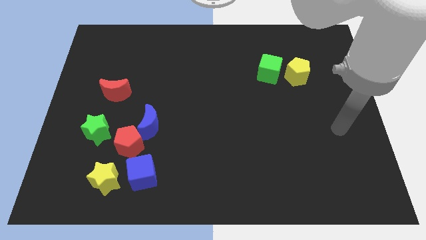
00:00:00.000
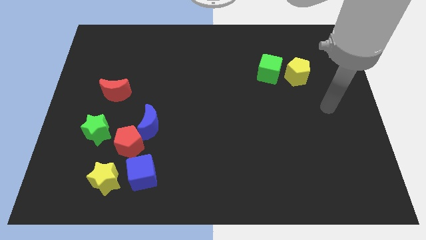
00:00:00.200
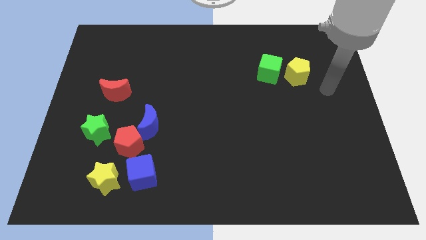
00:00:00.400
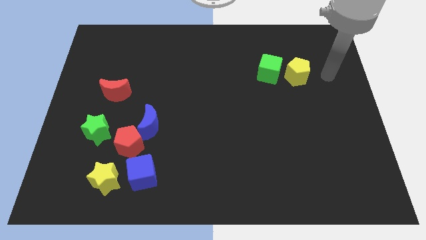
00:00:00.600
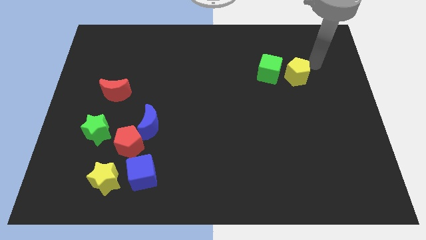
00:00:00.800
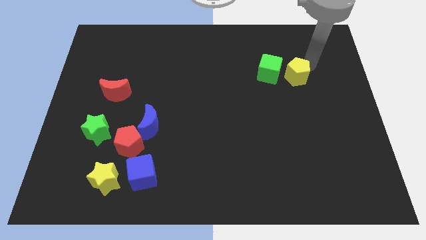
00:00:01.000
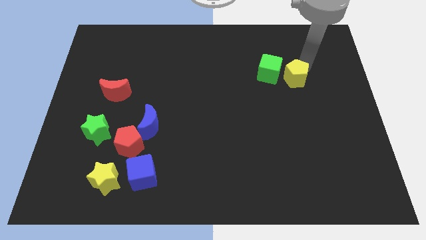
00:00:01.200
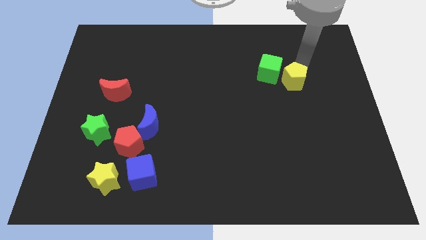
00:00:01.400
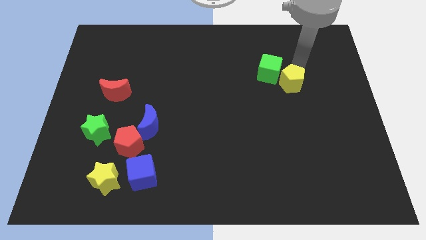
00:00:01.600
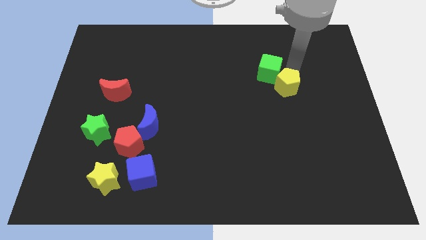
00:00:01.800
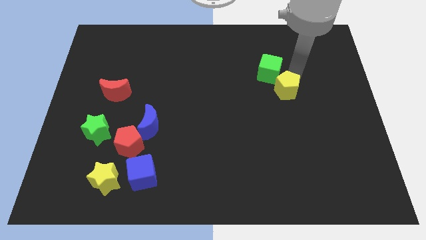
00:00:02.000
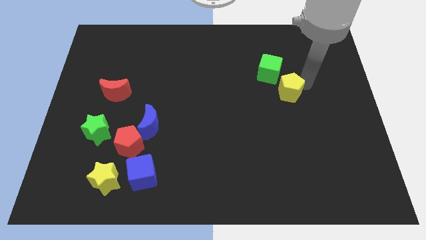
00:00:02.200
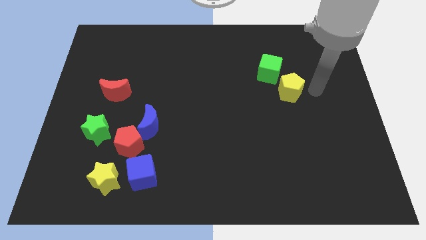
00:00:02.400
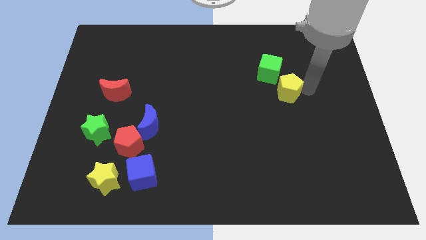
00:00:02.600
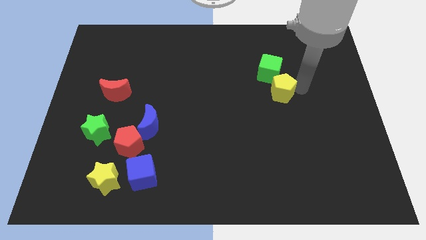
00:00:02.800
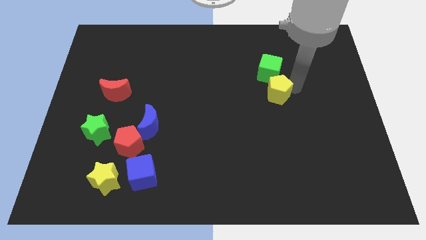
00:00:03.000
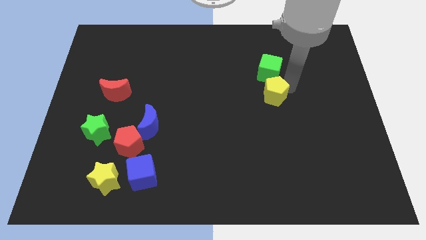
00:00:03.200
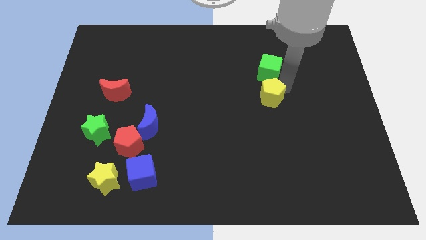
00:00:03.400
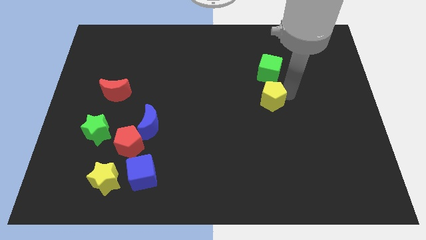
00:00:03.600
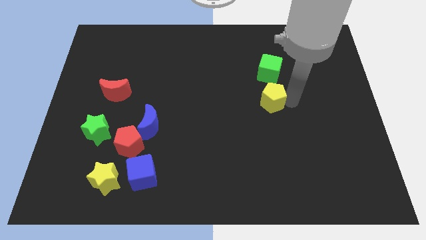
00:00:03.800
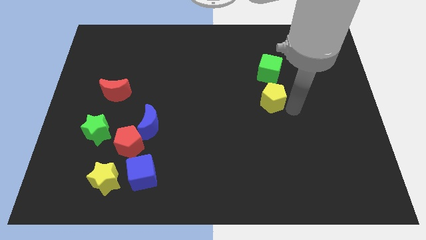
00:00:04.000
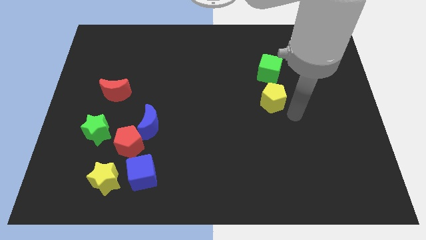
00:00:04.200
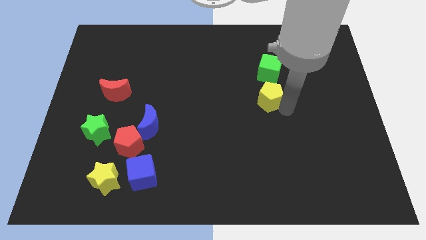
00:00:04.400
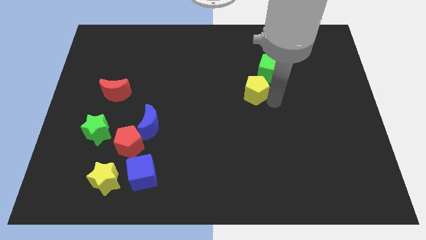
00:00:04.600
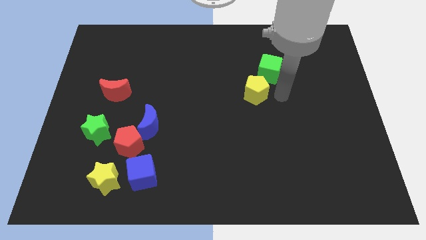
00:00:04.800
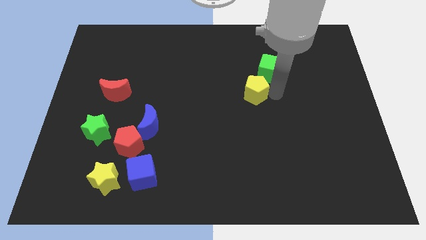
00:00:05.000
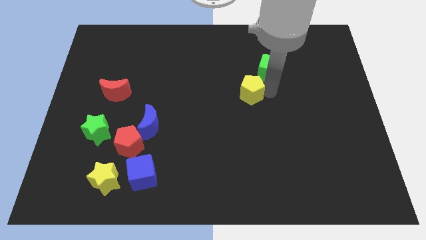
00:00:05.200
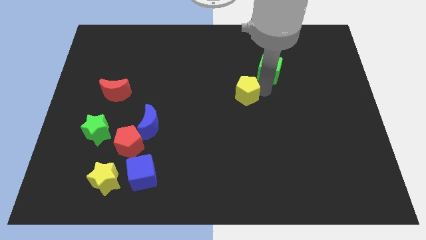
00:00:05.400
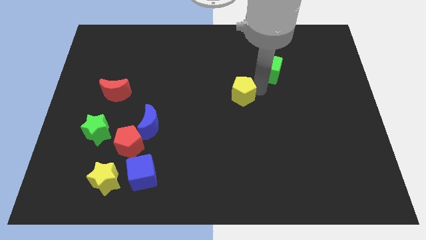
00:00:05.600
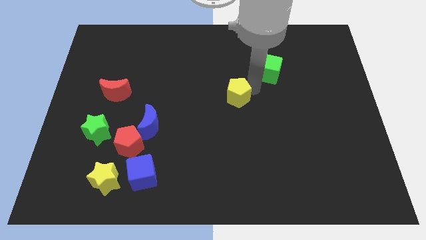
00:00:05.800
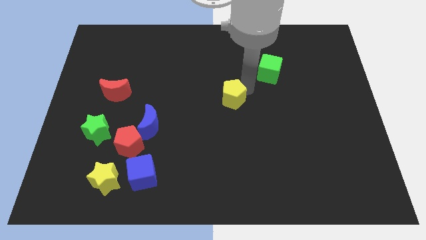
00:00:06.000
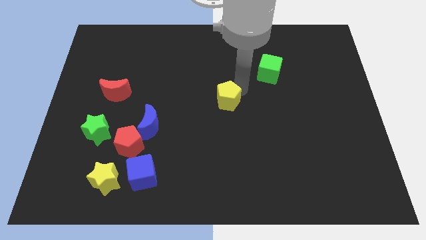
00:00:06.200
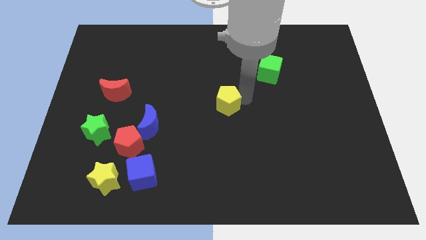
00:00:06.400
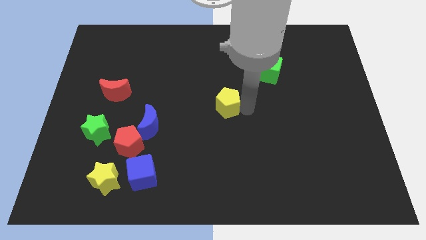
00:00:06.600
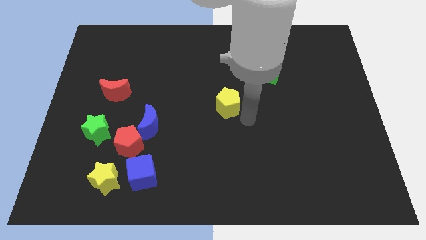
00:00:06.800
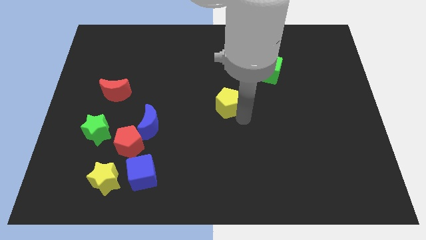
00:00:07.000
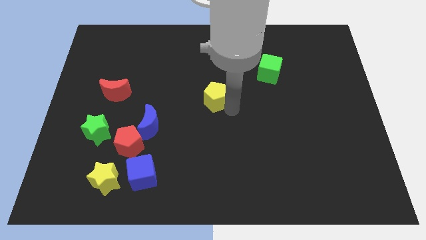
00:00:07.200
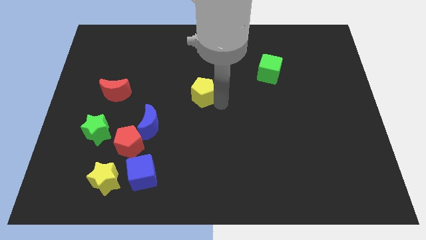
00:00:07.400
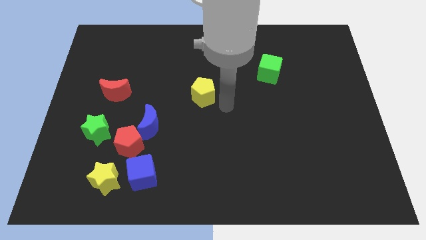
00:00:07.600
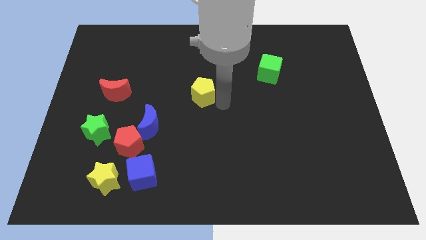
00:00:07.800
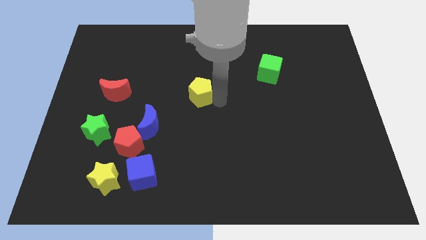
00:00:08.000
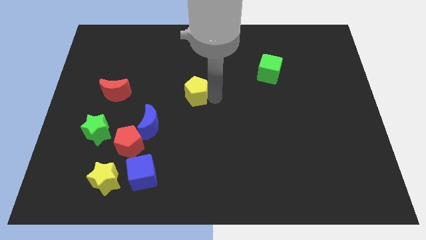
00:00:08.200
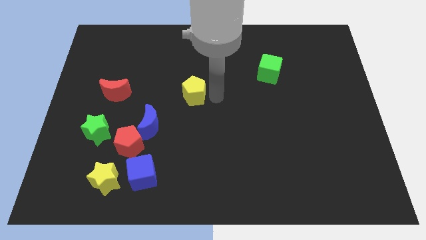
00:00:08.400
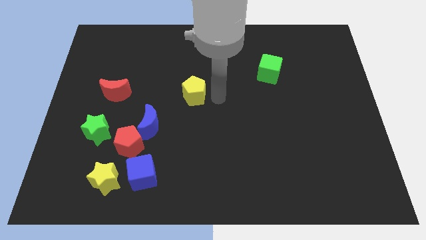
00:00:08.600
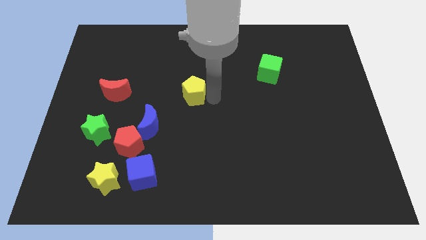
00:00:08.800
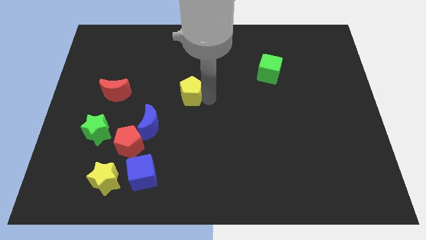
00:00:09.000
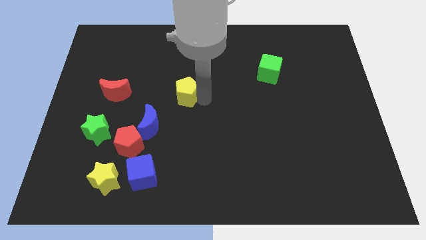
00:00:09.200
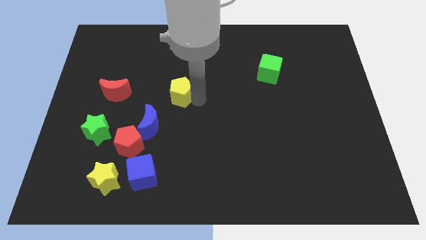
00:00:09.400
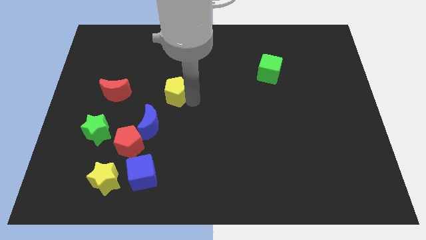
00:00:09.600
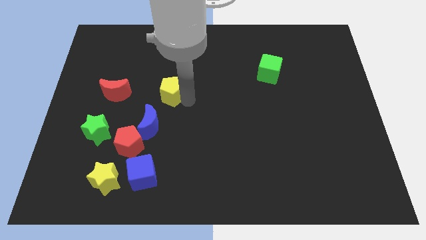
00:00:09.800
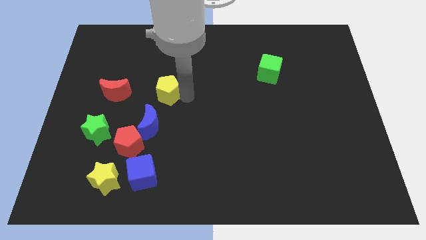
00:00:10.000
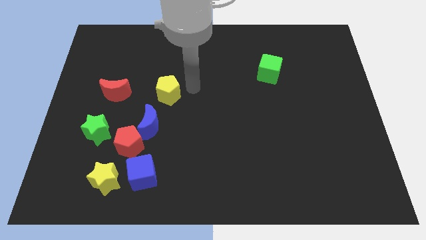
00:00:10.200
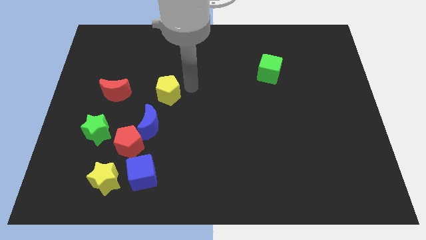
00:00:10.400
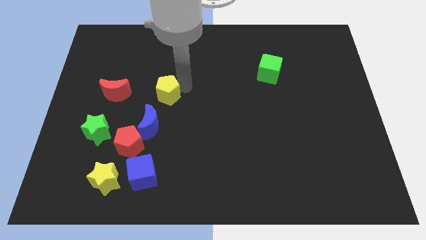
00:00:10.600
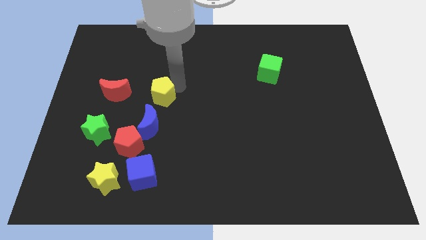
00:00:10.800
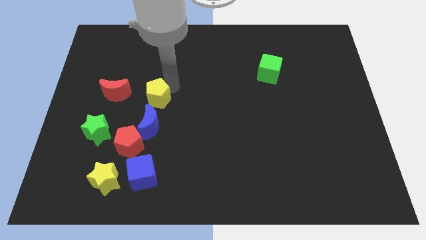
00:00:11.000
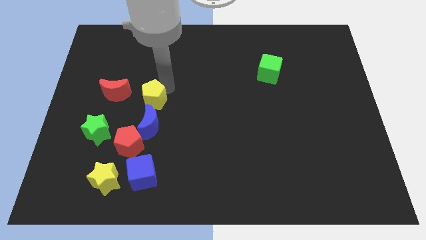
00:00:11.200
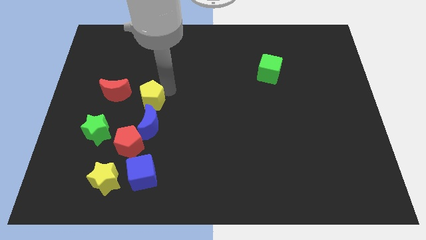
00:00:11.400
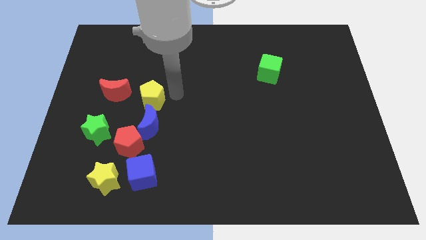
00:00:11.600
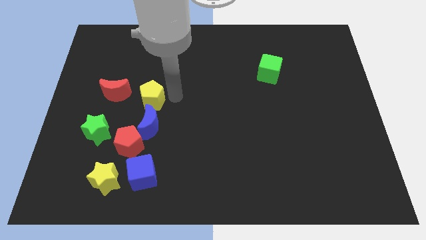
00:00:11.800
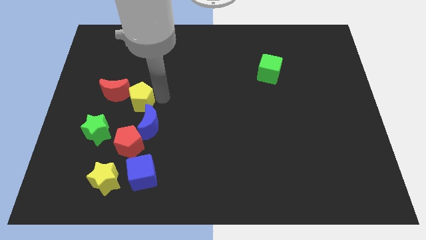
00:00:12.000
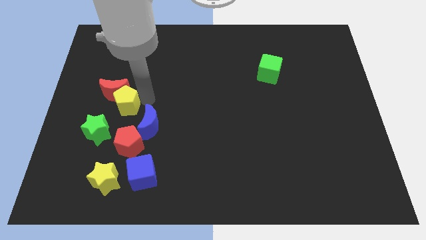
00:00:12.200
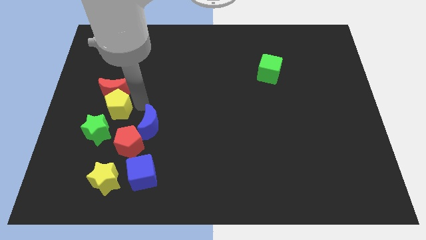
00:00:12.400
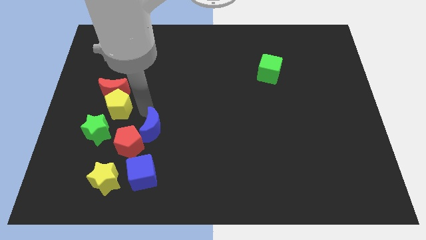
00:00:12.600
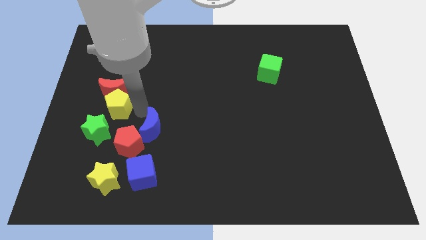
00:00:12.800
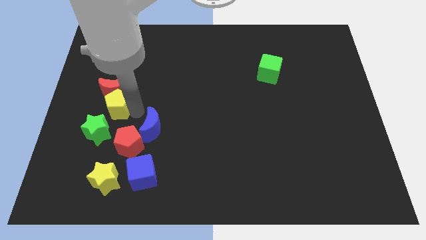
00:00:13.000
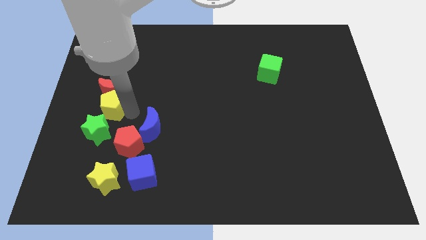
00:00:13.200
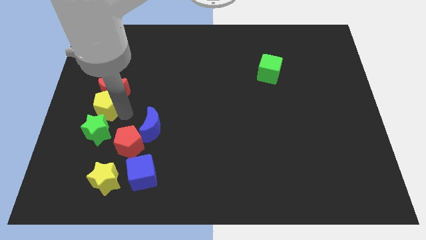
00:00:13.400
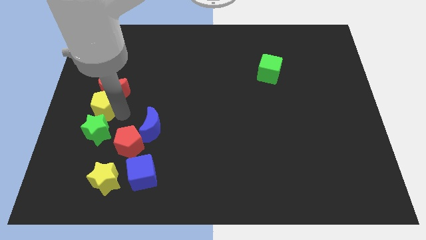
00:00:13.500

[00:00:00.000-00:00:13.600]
push the yellow pentagon to the left side of the board

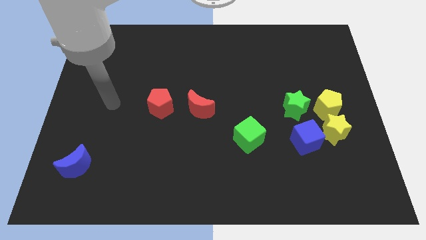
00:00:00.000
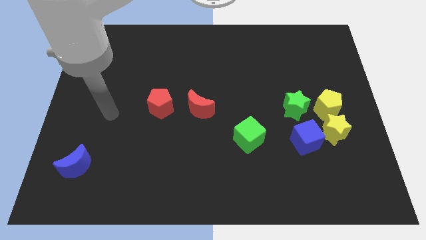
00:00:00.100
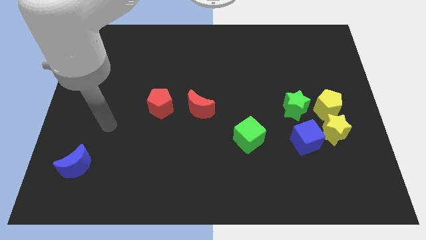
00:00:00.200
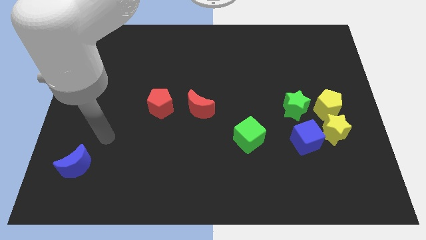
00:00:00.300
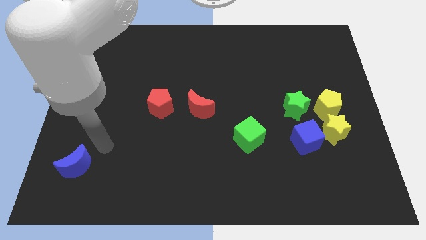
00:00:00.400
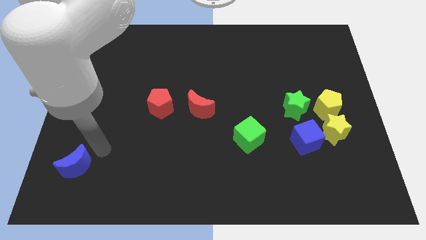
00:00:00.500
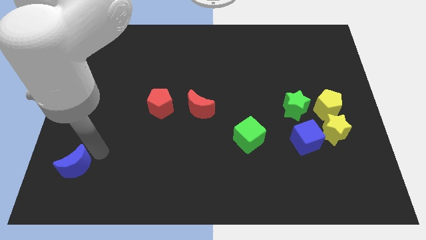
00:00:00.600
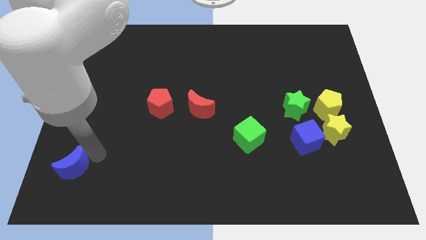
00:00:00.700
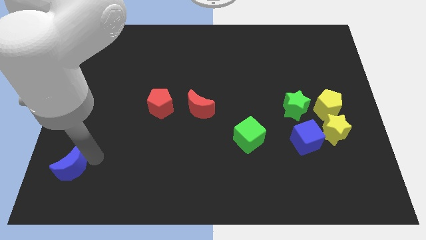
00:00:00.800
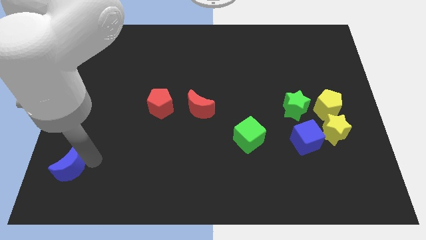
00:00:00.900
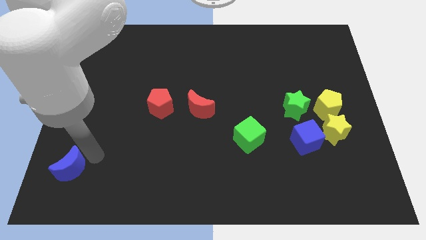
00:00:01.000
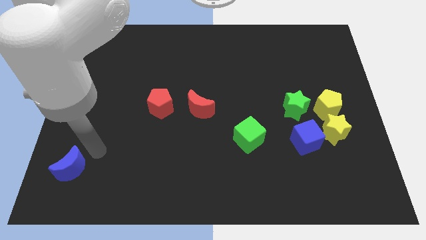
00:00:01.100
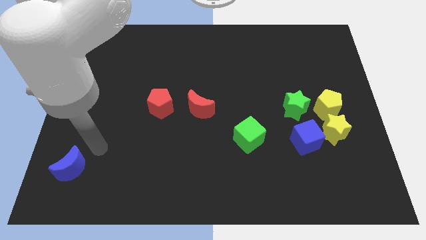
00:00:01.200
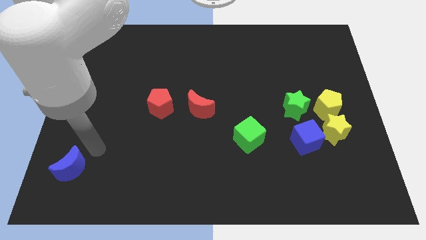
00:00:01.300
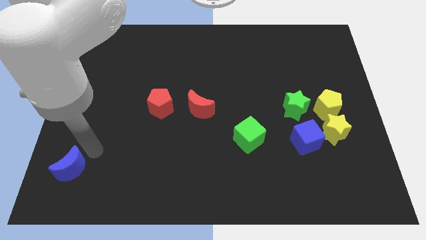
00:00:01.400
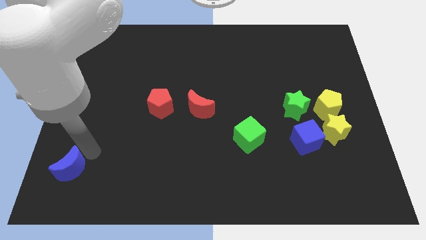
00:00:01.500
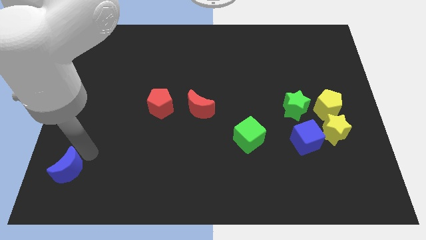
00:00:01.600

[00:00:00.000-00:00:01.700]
slide the blue moon to the bottom left
